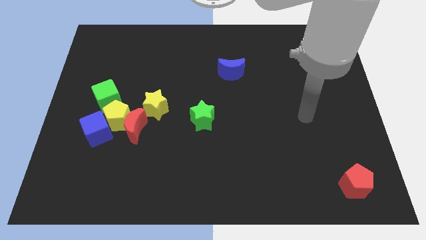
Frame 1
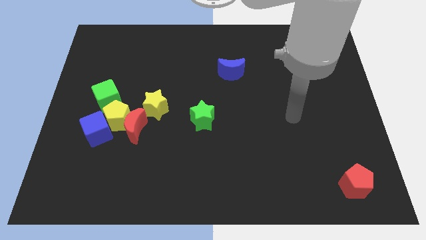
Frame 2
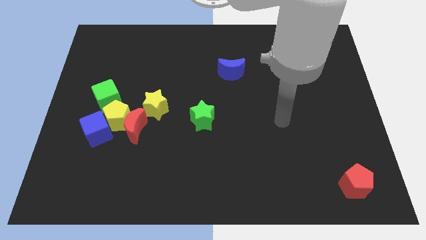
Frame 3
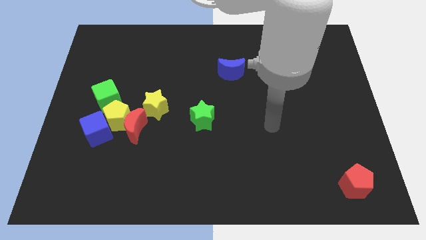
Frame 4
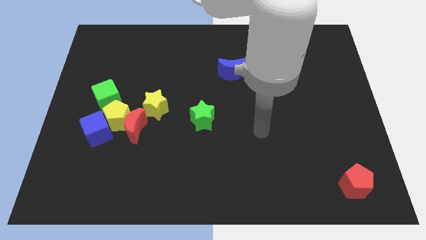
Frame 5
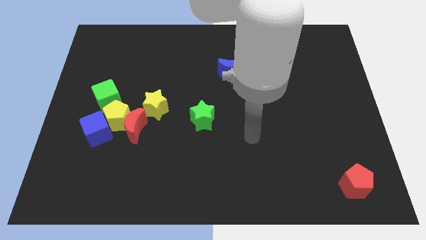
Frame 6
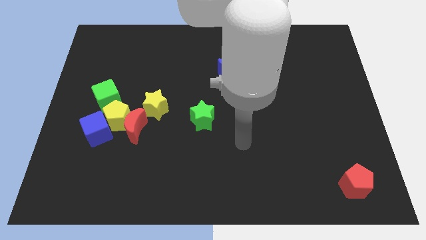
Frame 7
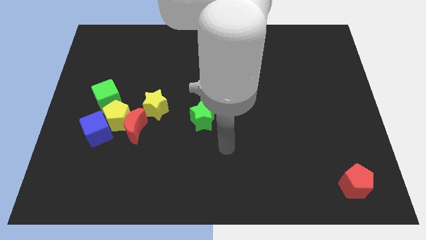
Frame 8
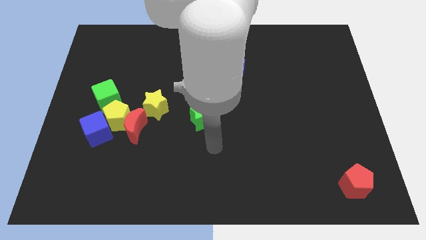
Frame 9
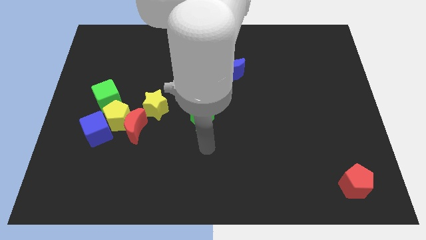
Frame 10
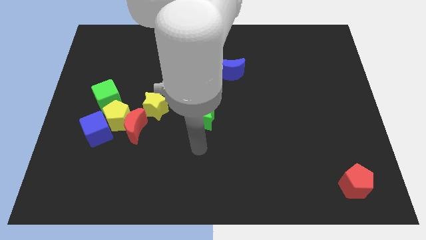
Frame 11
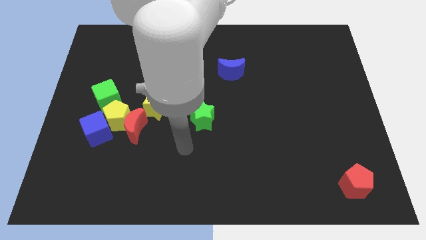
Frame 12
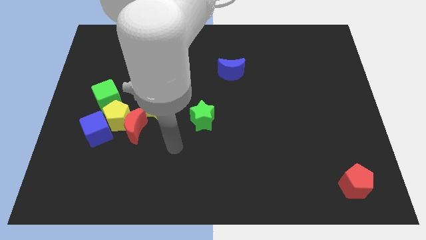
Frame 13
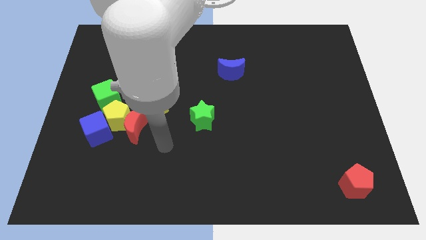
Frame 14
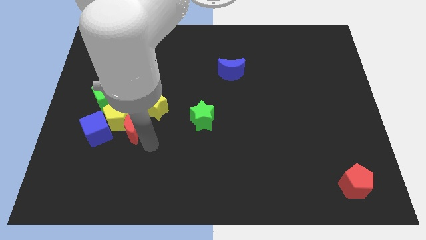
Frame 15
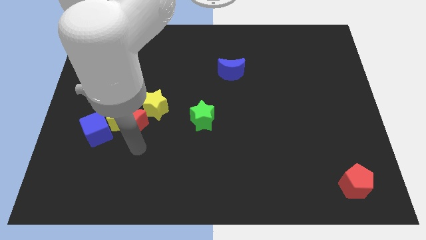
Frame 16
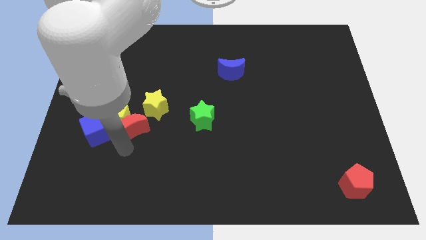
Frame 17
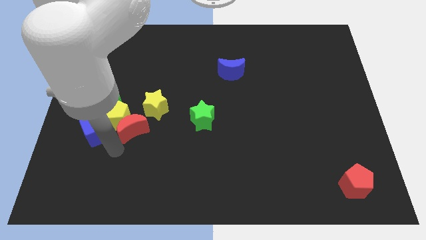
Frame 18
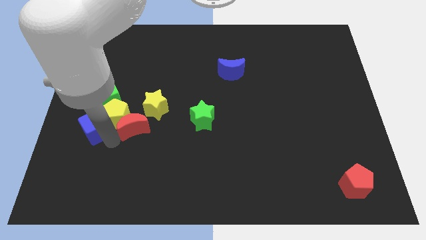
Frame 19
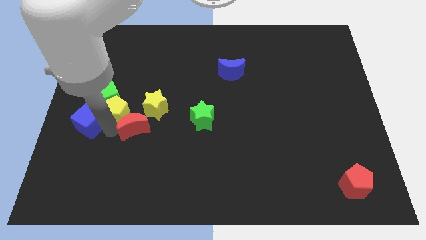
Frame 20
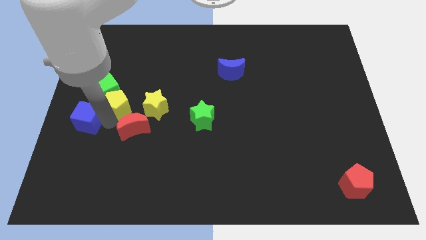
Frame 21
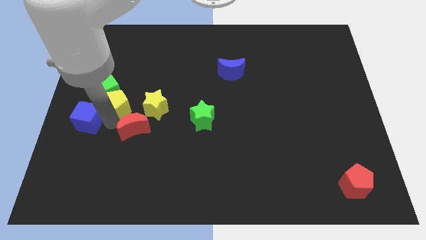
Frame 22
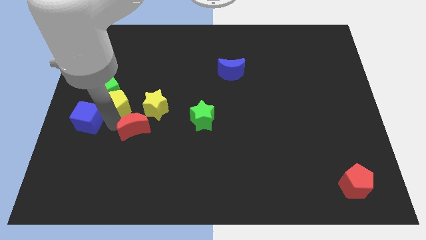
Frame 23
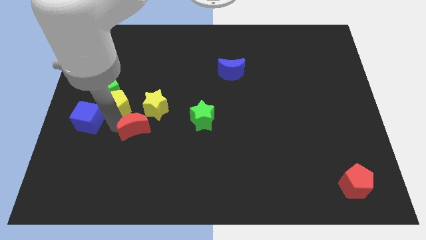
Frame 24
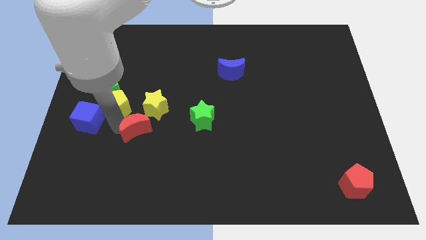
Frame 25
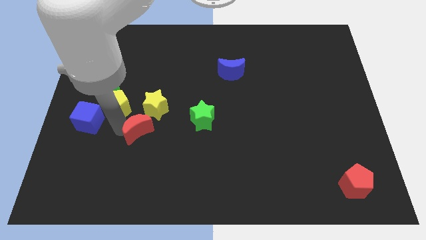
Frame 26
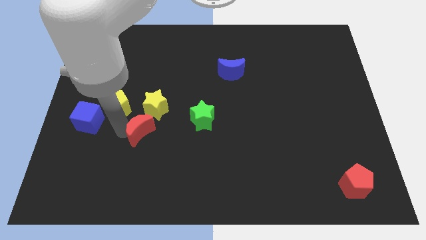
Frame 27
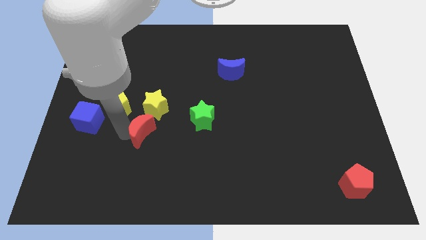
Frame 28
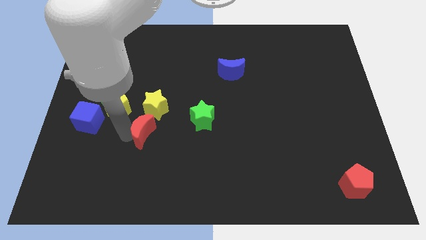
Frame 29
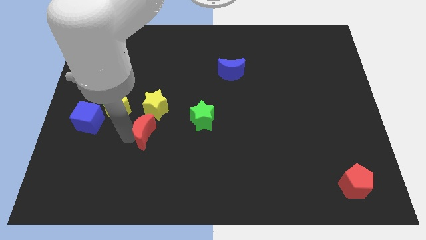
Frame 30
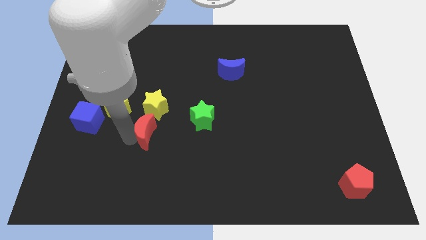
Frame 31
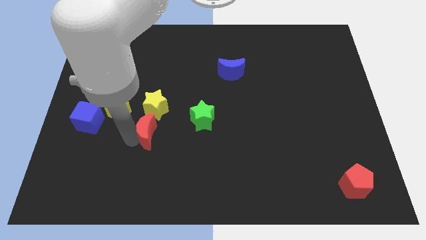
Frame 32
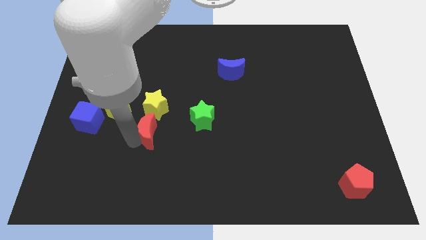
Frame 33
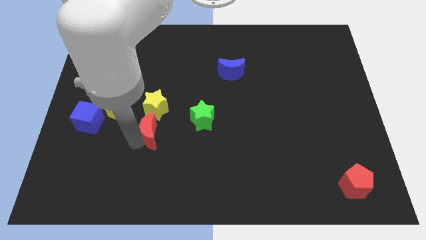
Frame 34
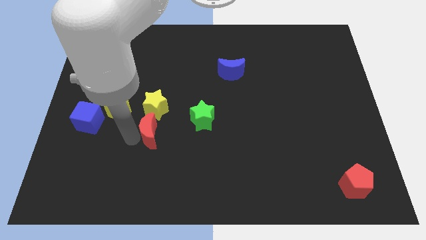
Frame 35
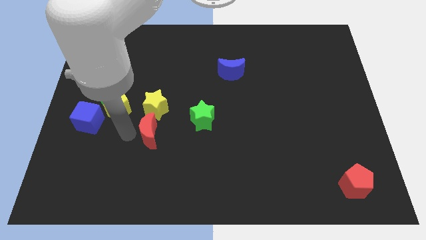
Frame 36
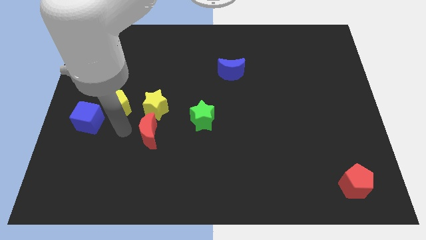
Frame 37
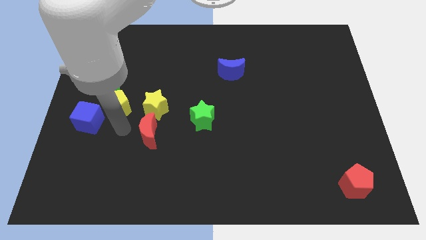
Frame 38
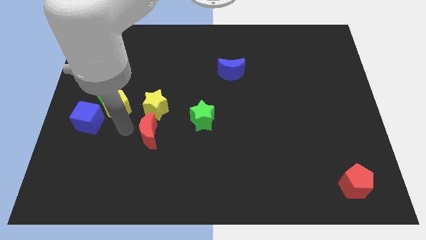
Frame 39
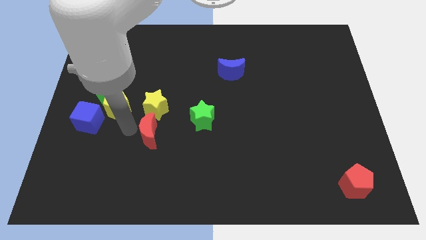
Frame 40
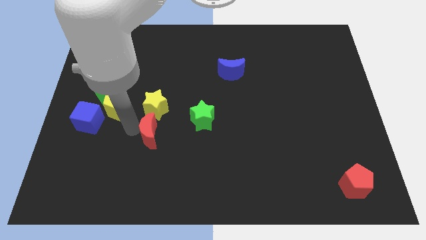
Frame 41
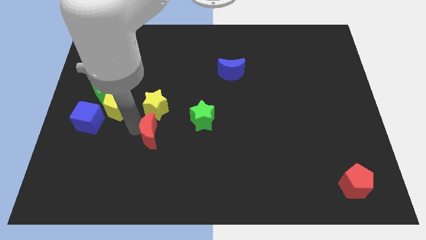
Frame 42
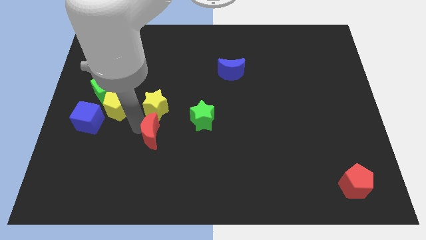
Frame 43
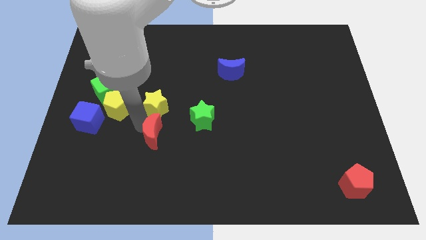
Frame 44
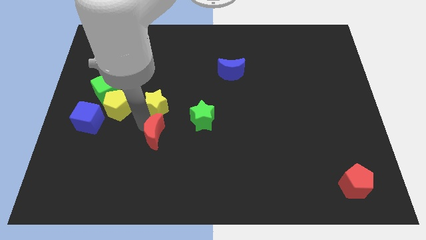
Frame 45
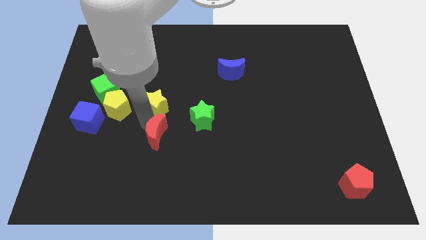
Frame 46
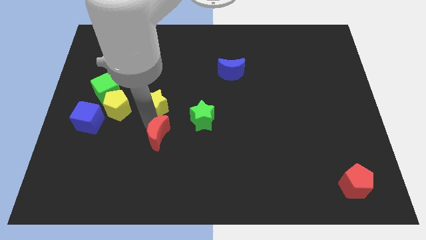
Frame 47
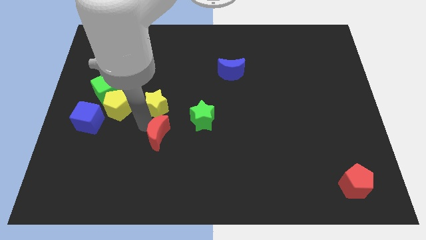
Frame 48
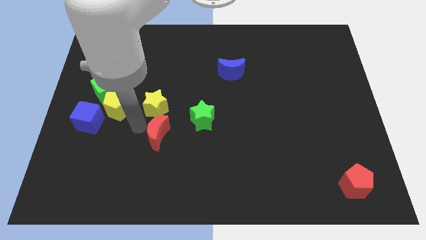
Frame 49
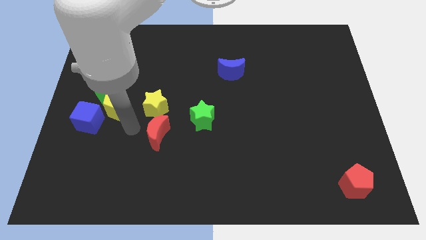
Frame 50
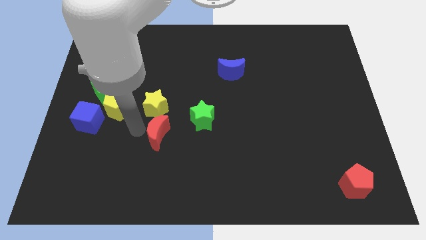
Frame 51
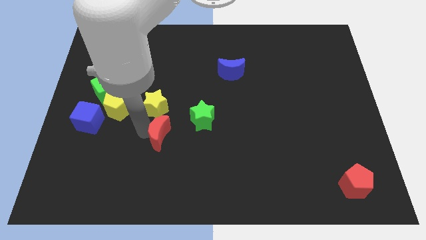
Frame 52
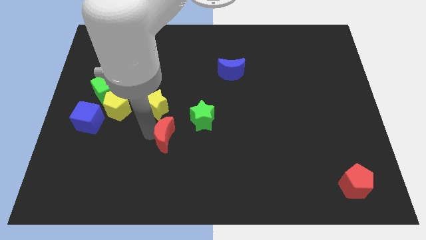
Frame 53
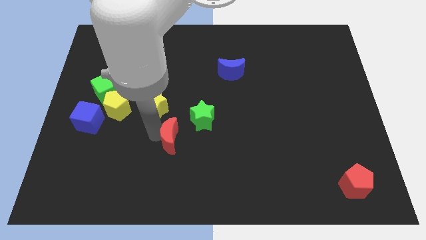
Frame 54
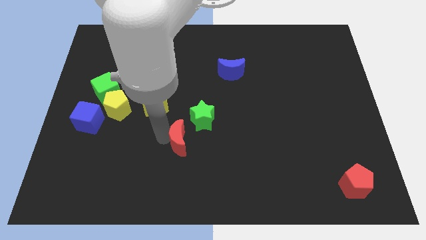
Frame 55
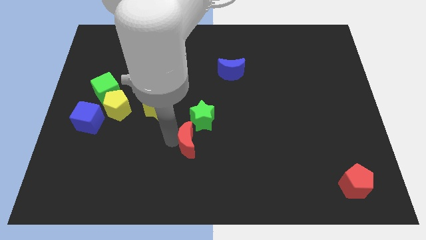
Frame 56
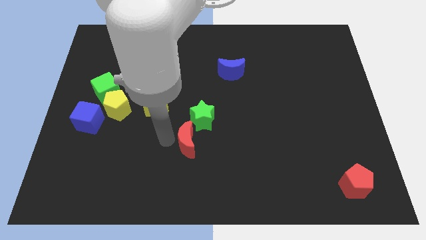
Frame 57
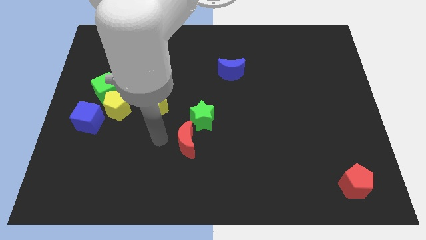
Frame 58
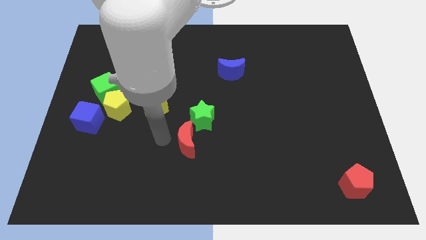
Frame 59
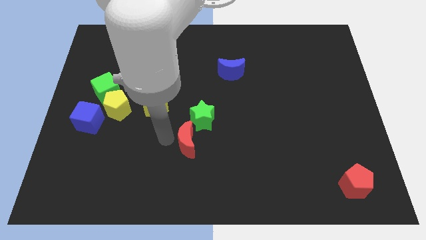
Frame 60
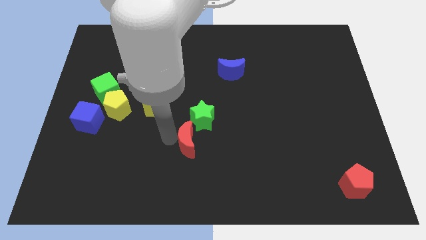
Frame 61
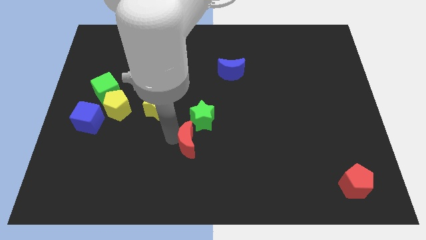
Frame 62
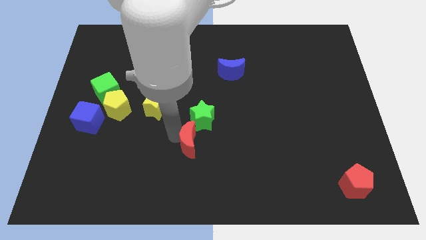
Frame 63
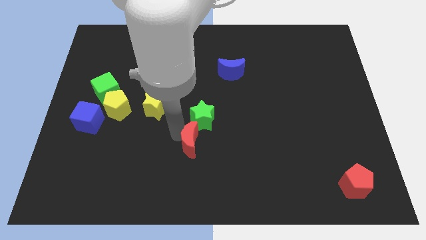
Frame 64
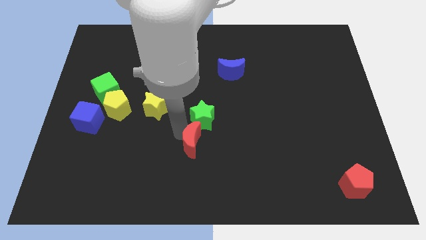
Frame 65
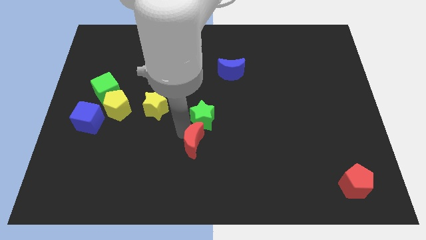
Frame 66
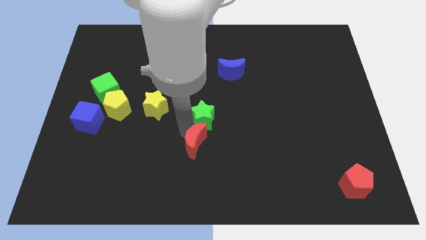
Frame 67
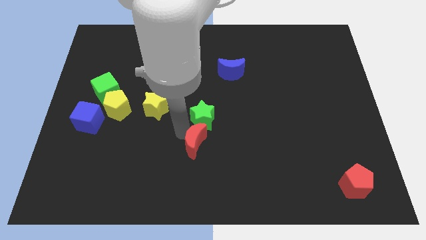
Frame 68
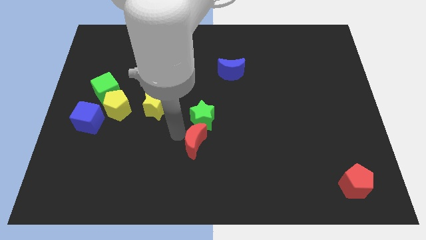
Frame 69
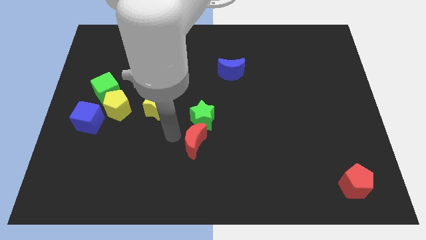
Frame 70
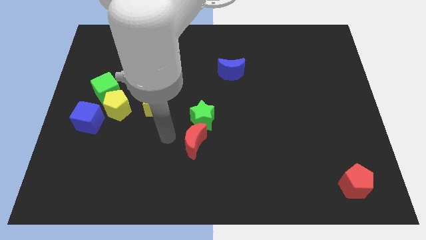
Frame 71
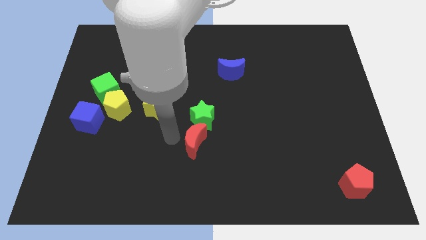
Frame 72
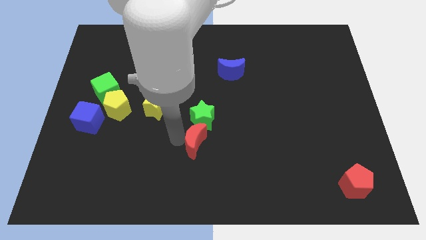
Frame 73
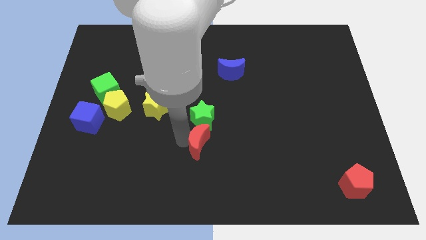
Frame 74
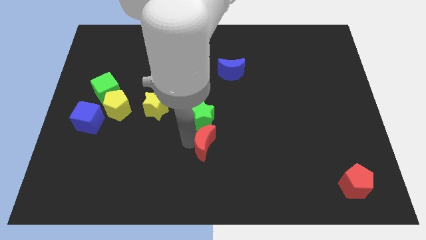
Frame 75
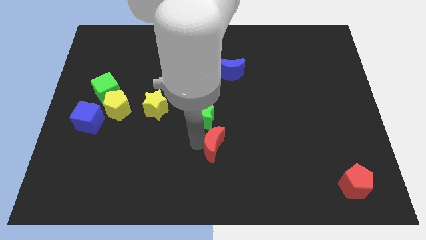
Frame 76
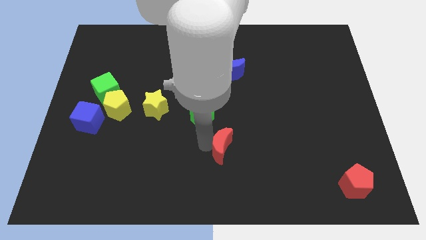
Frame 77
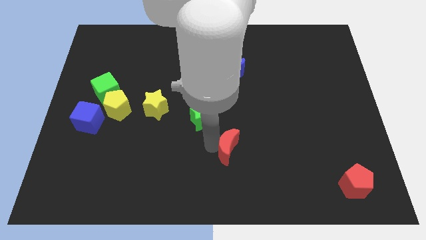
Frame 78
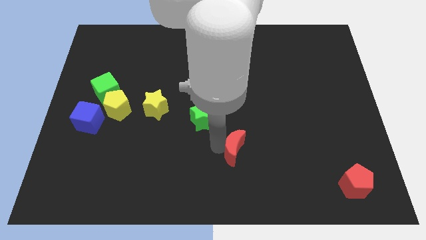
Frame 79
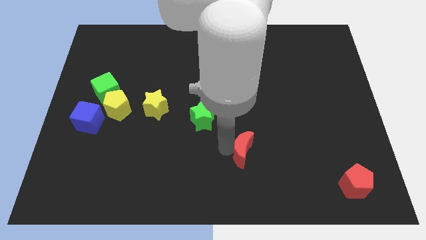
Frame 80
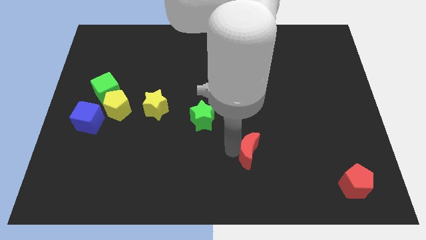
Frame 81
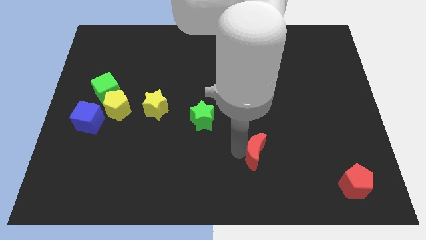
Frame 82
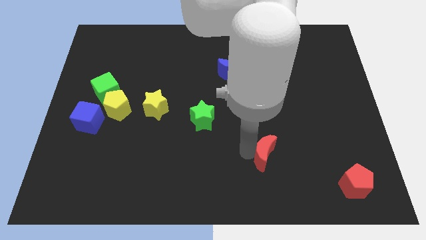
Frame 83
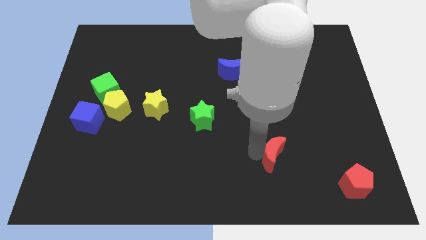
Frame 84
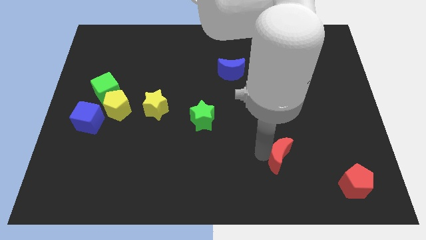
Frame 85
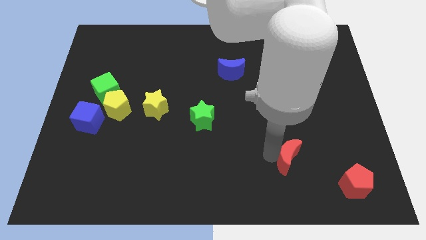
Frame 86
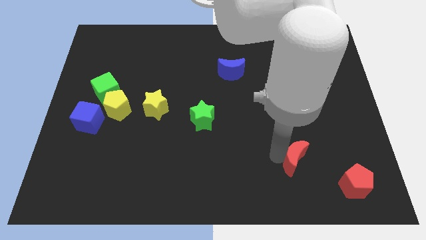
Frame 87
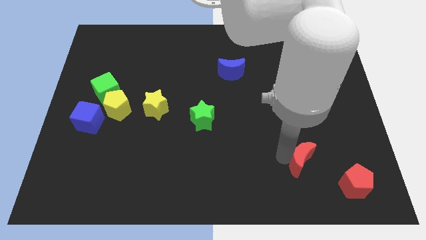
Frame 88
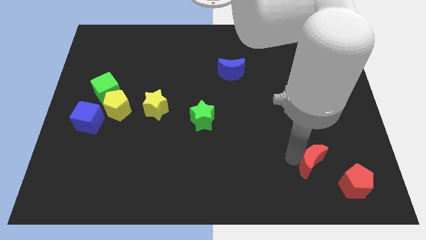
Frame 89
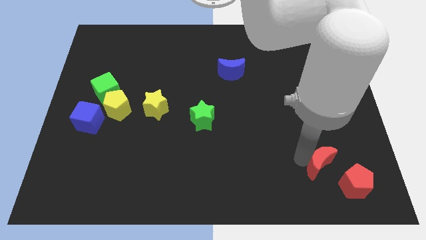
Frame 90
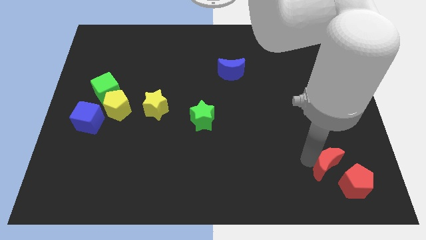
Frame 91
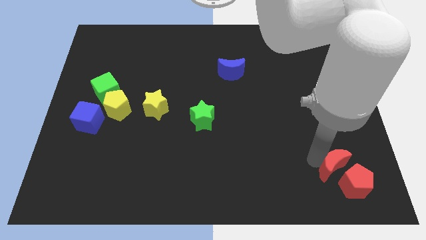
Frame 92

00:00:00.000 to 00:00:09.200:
slide the red moon to the red pentagon
